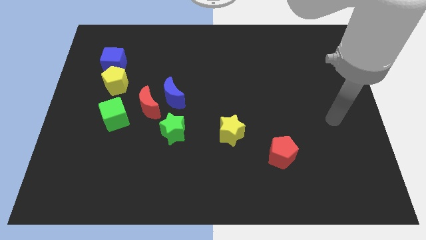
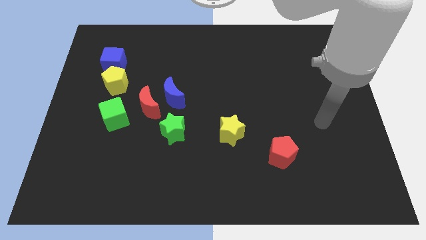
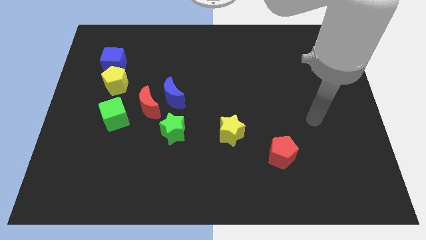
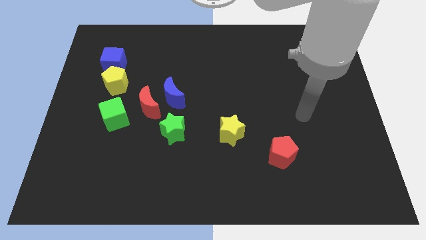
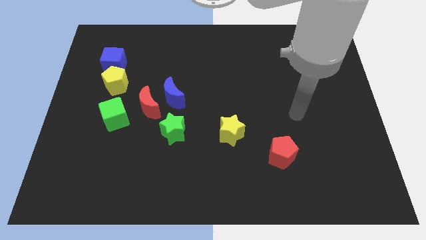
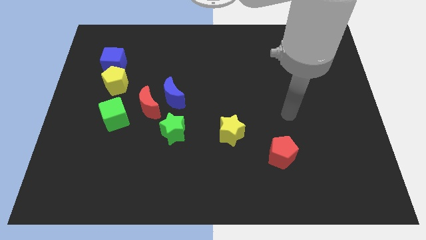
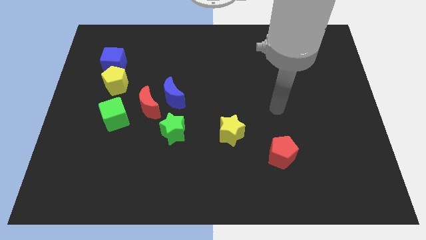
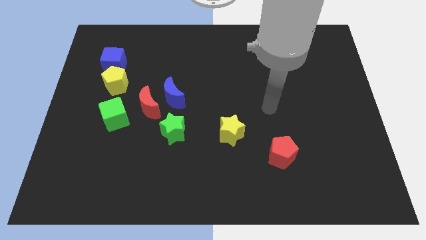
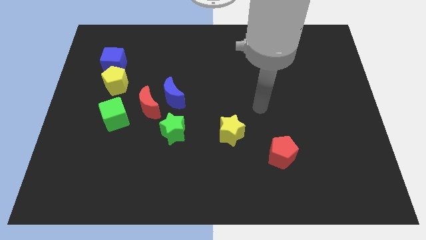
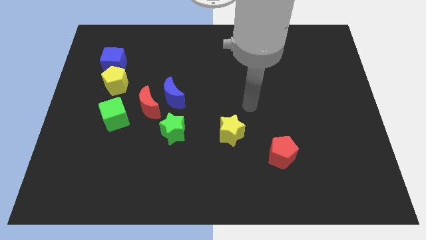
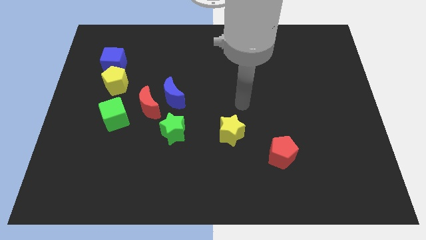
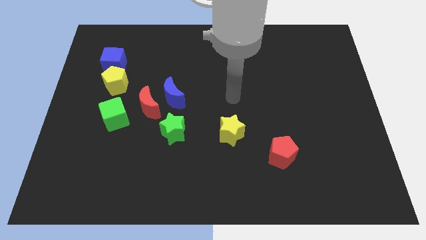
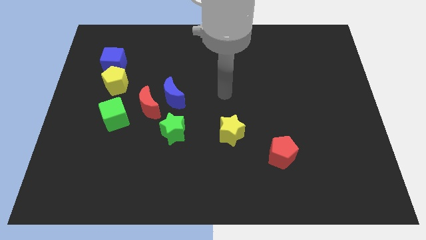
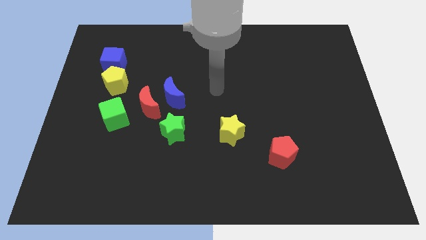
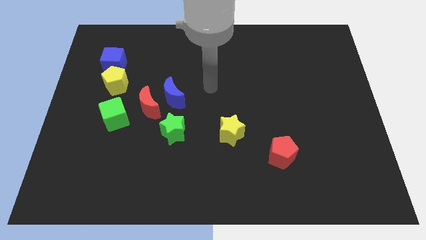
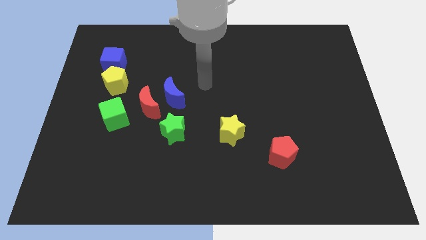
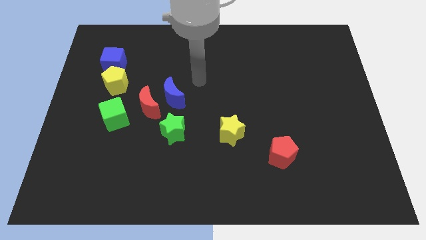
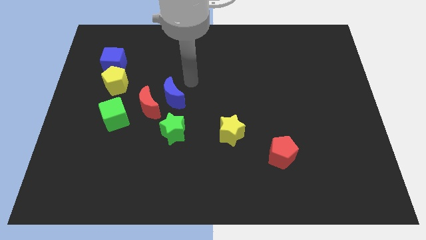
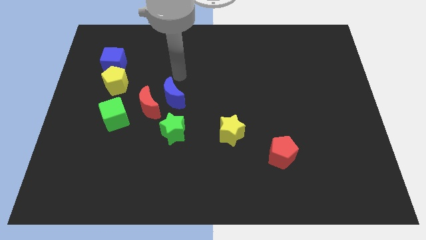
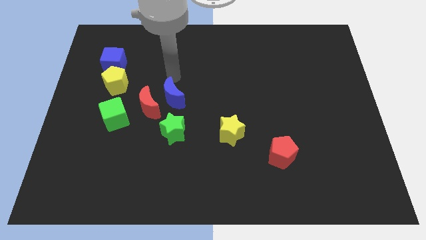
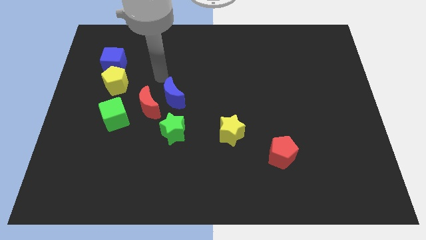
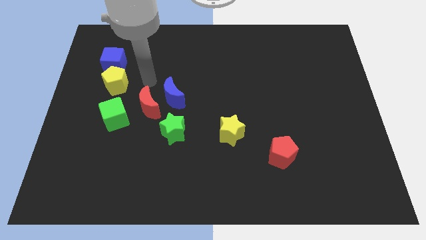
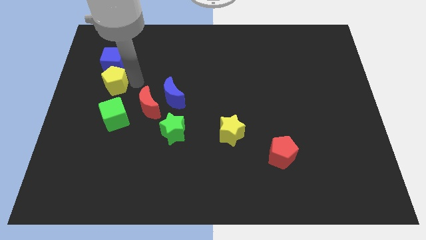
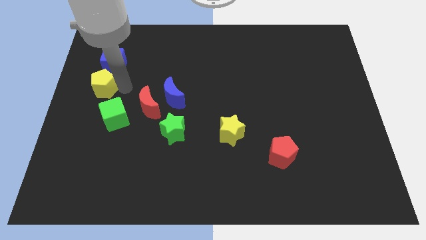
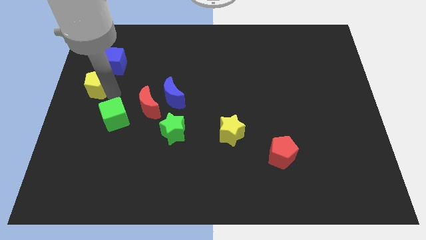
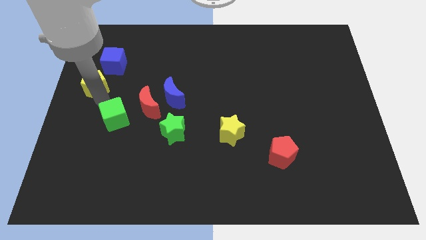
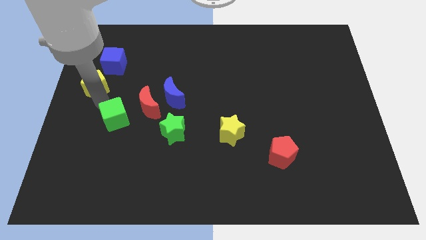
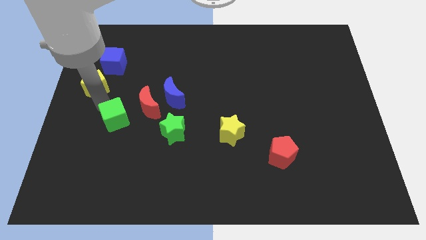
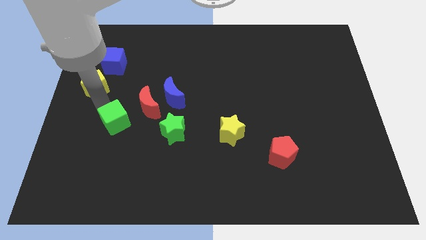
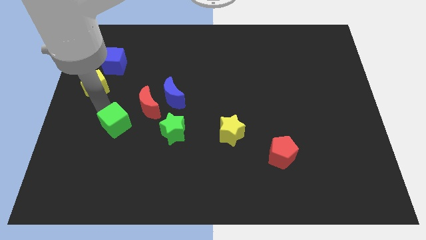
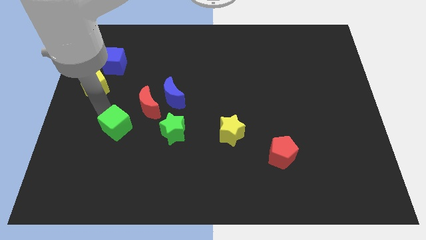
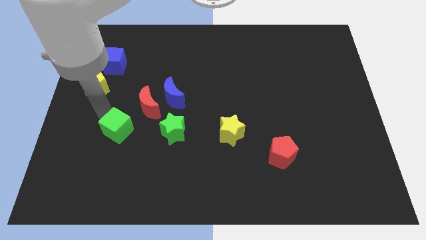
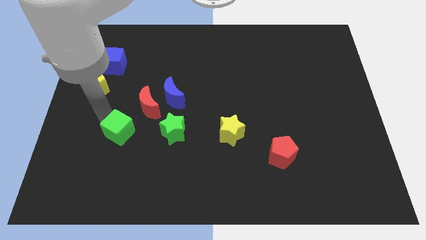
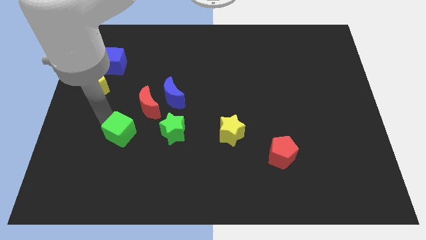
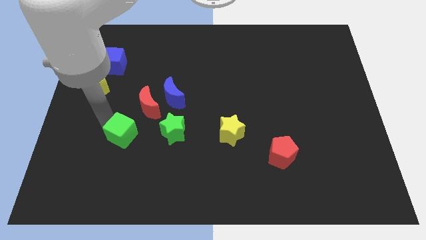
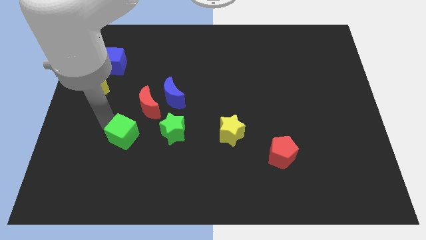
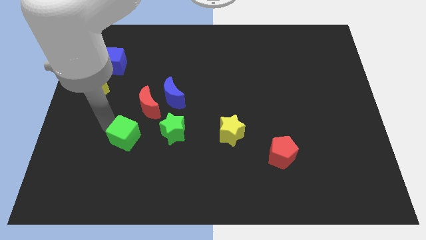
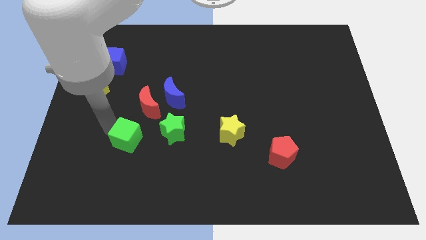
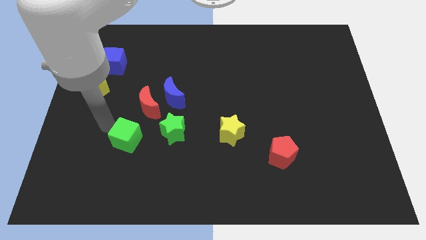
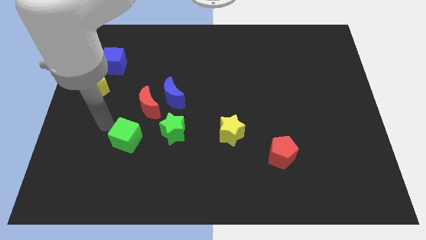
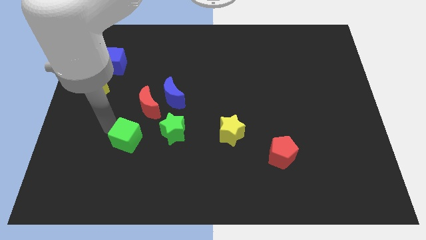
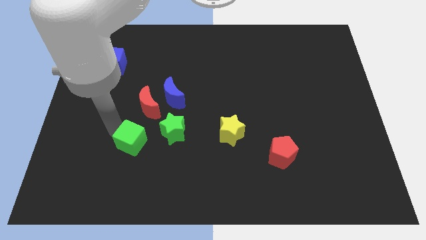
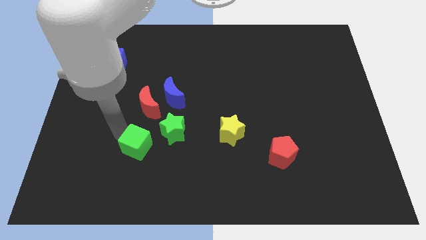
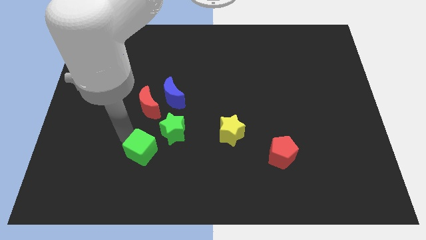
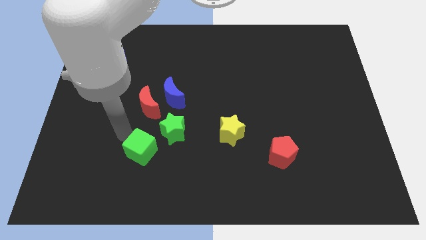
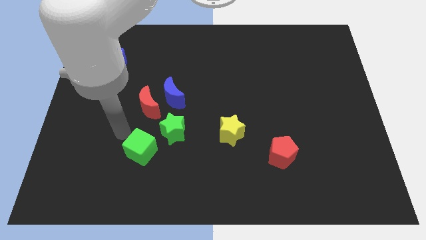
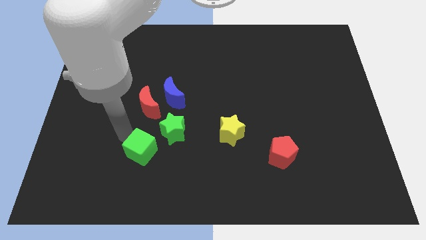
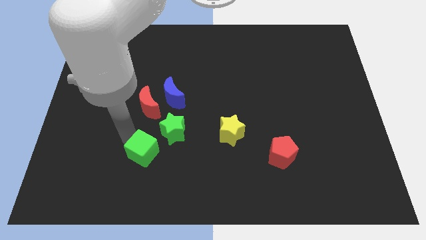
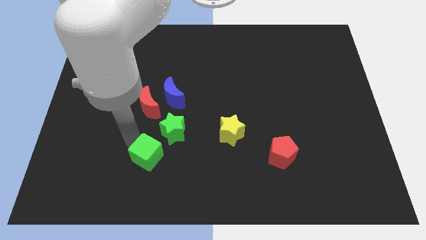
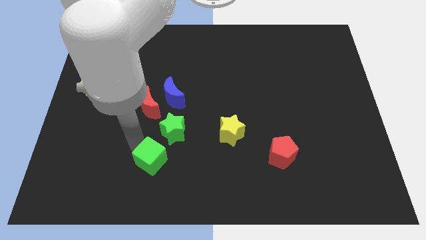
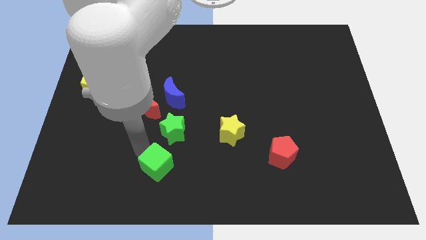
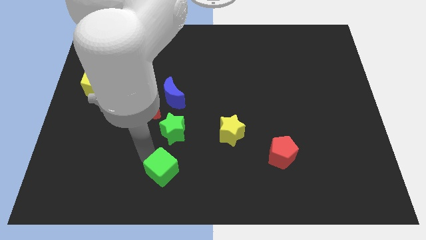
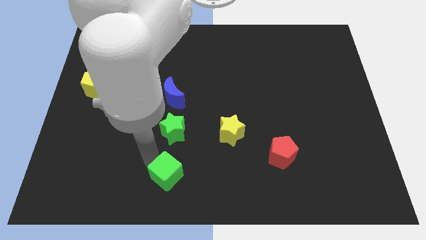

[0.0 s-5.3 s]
slide the green cube to the bottom side
